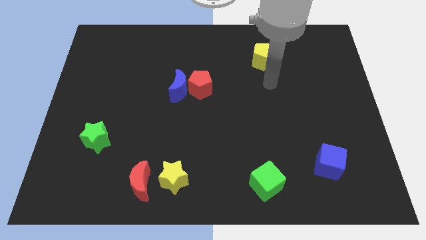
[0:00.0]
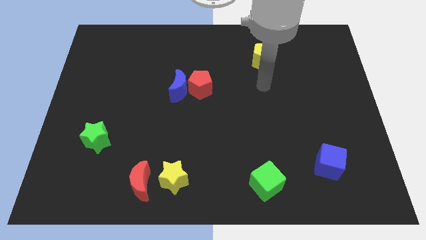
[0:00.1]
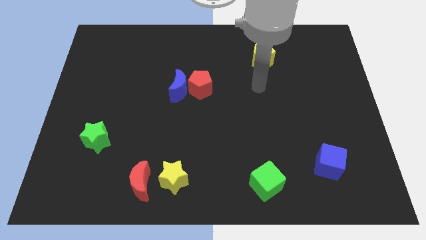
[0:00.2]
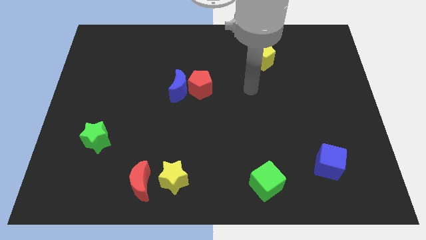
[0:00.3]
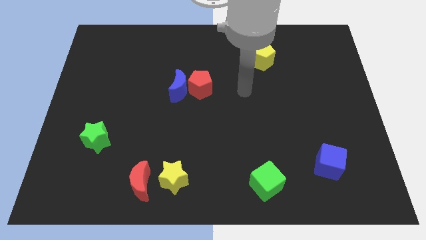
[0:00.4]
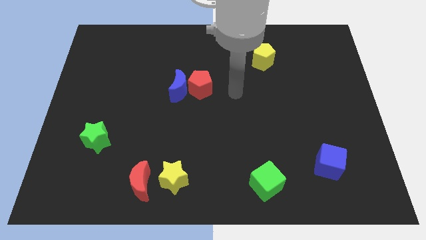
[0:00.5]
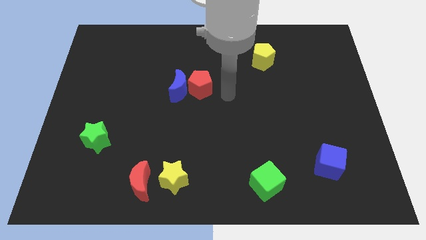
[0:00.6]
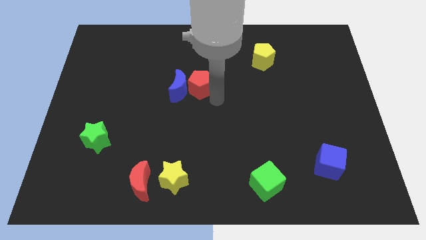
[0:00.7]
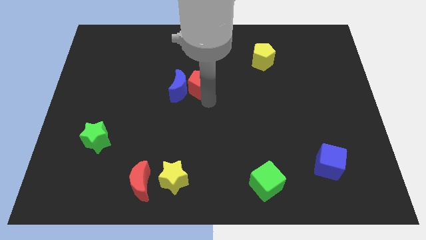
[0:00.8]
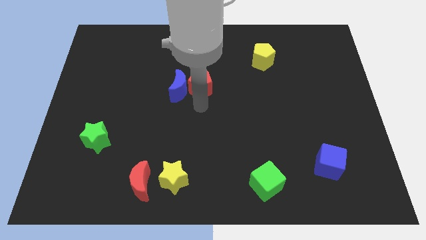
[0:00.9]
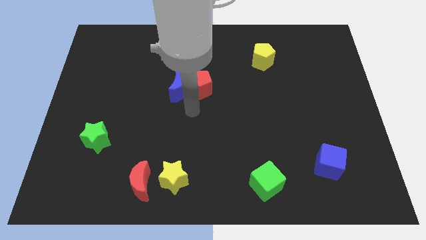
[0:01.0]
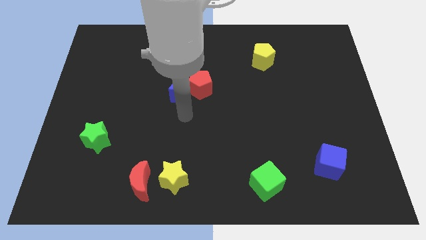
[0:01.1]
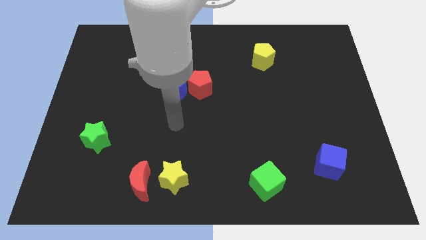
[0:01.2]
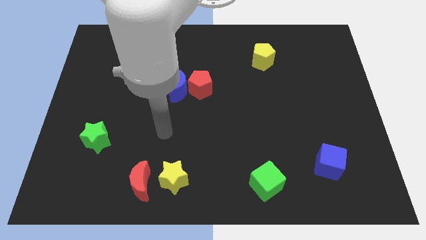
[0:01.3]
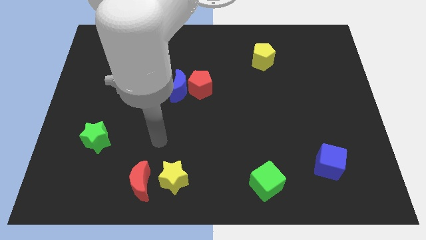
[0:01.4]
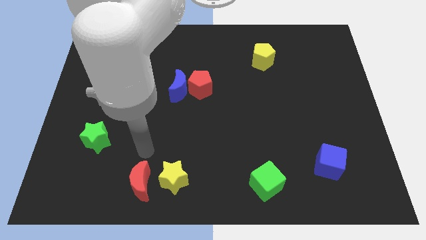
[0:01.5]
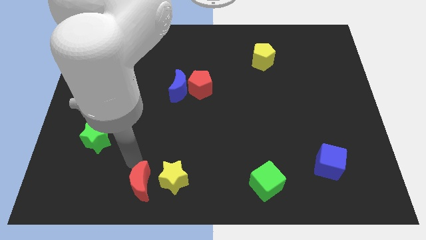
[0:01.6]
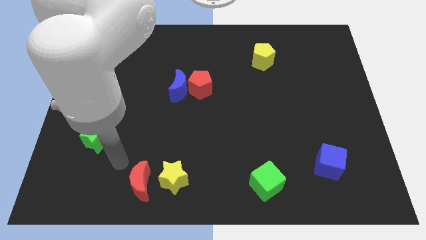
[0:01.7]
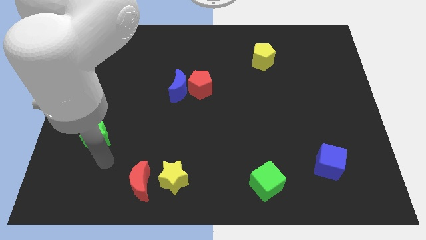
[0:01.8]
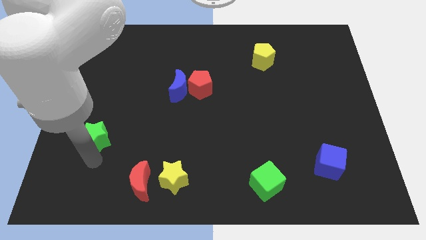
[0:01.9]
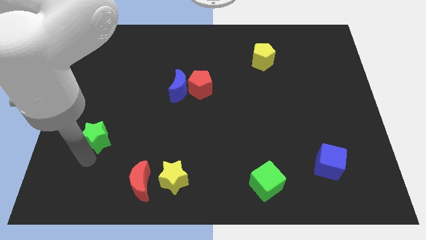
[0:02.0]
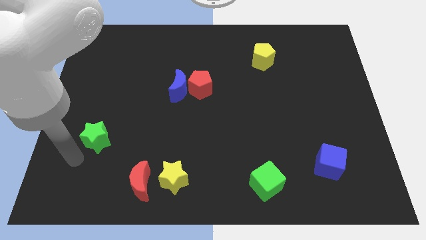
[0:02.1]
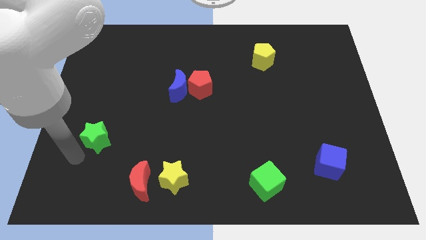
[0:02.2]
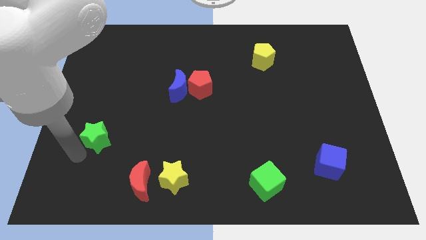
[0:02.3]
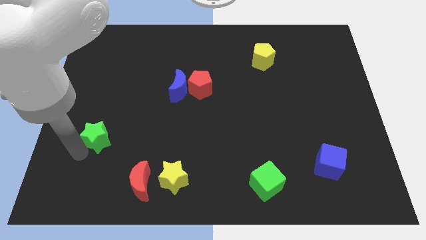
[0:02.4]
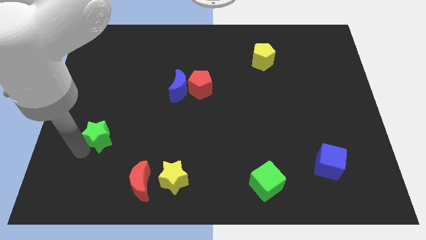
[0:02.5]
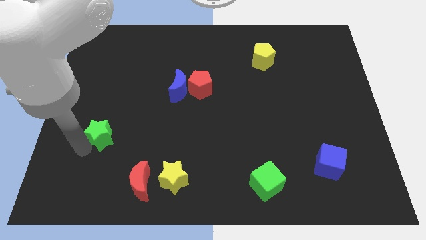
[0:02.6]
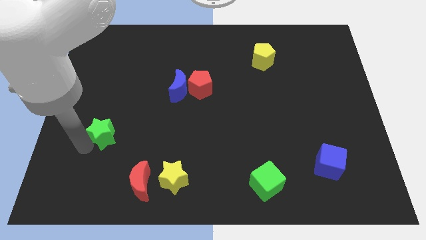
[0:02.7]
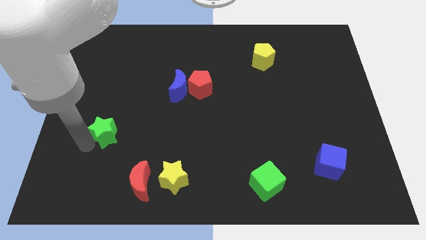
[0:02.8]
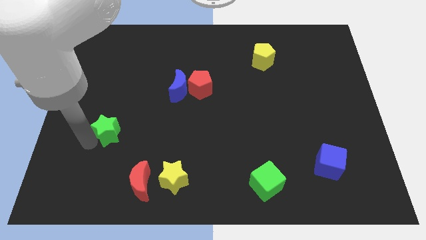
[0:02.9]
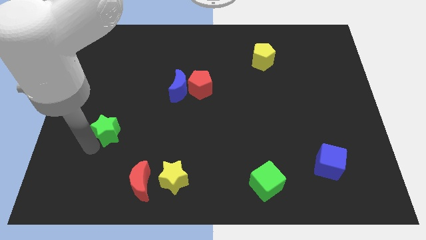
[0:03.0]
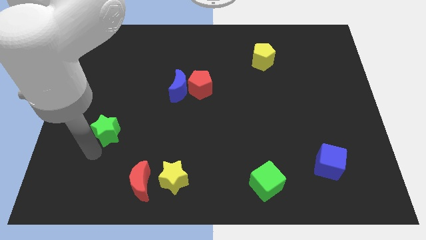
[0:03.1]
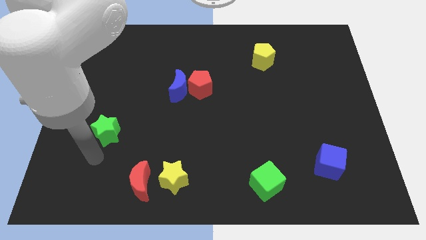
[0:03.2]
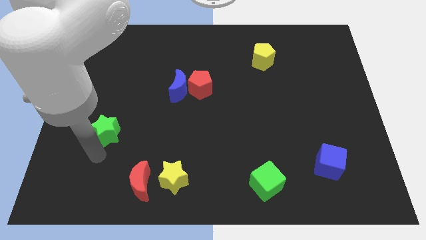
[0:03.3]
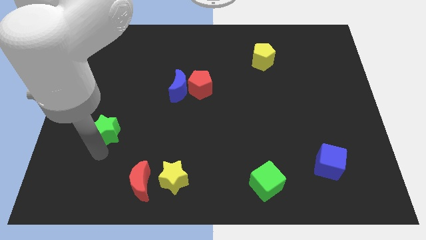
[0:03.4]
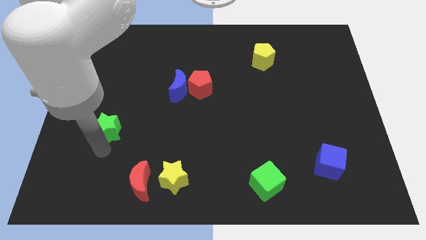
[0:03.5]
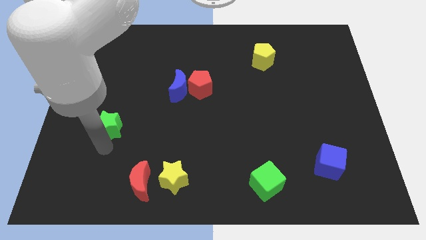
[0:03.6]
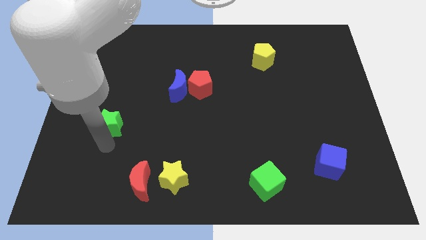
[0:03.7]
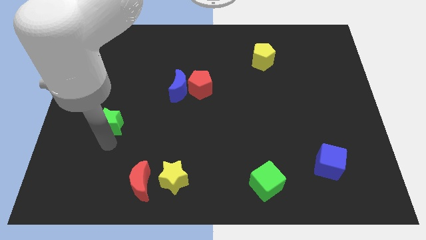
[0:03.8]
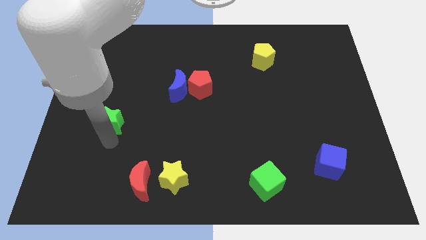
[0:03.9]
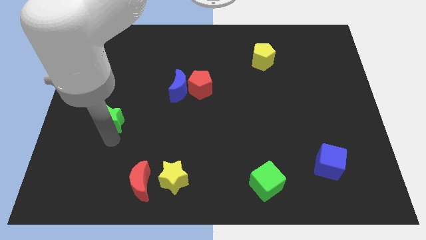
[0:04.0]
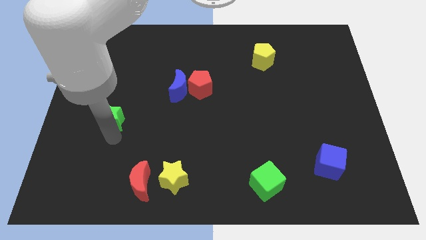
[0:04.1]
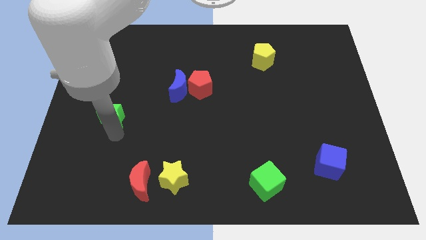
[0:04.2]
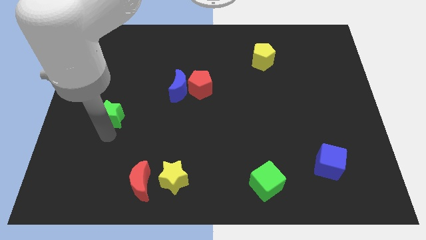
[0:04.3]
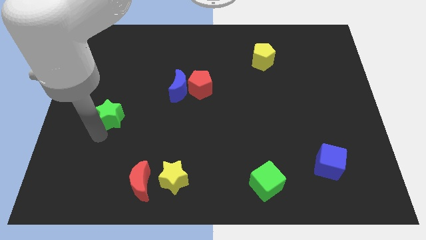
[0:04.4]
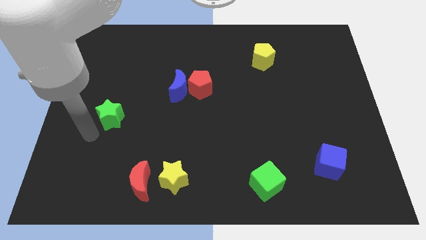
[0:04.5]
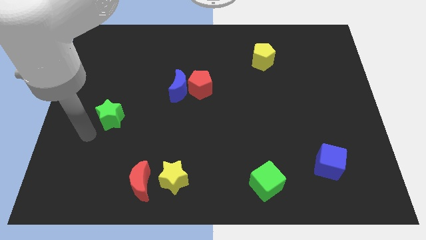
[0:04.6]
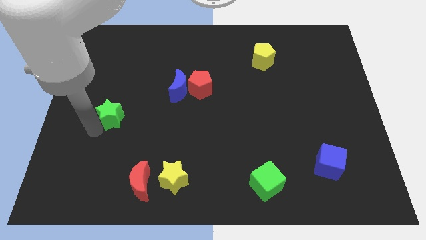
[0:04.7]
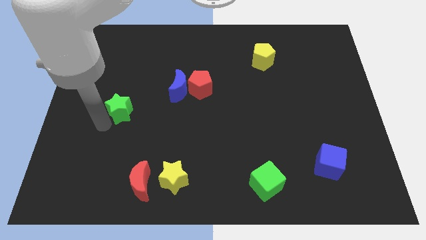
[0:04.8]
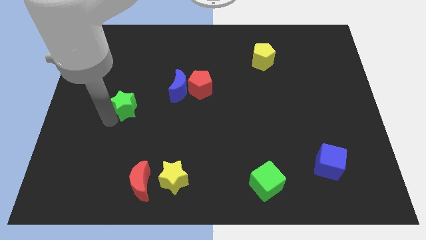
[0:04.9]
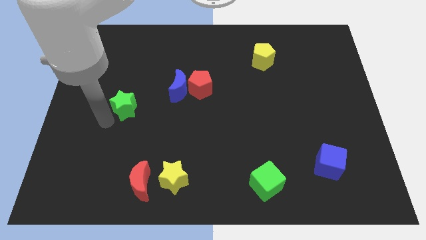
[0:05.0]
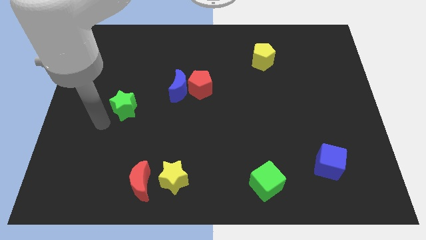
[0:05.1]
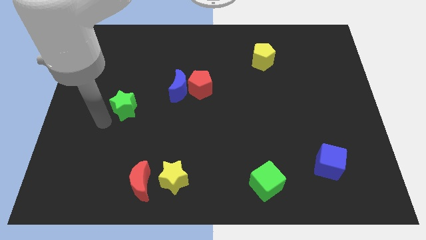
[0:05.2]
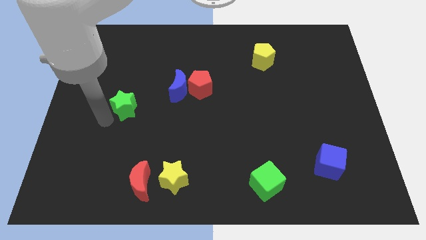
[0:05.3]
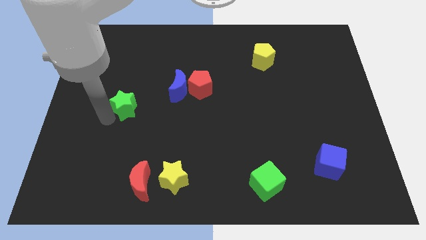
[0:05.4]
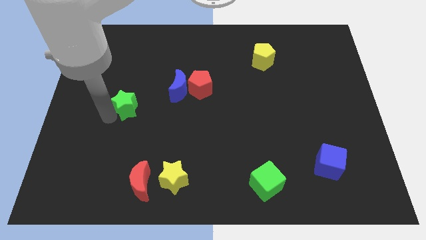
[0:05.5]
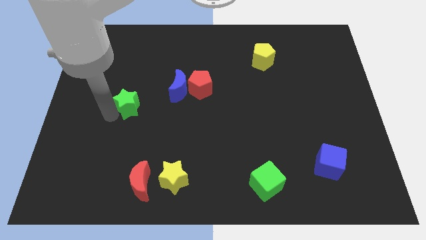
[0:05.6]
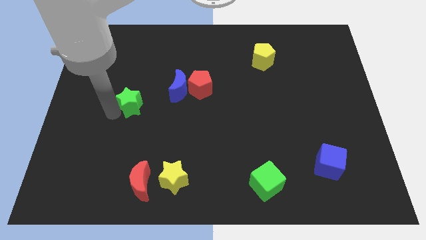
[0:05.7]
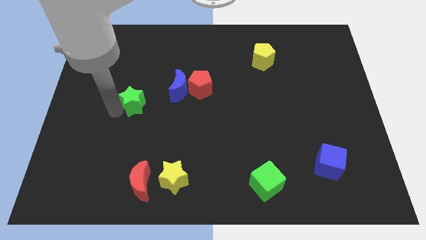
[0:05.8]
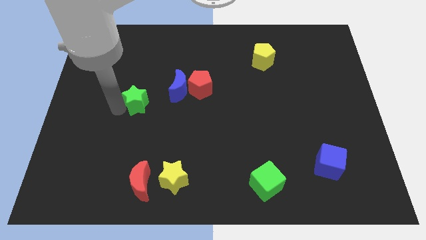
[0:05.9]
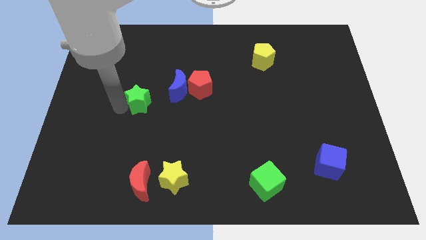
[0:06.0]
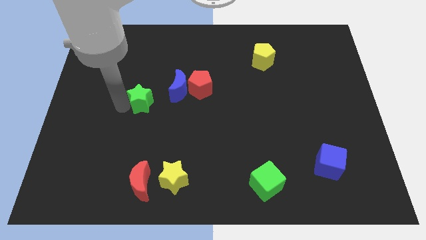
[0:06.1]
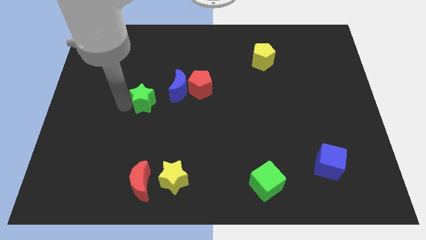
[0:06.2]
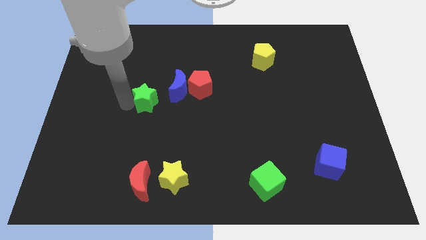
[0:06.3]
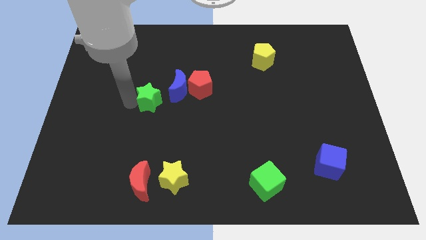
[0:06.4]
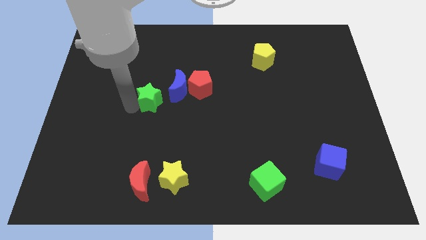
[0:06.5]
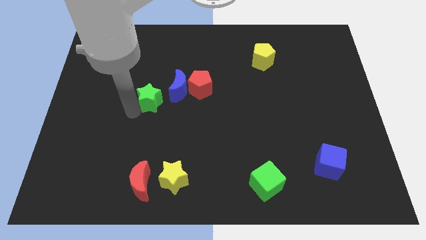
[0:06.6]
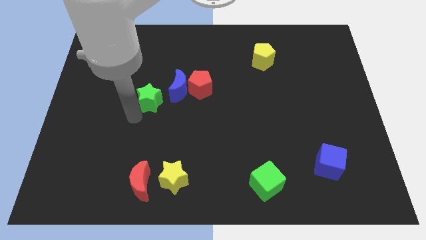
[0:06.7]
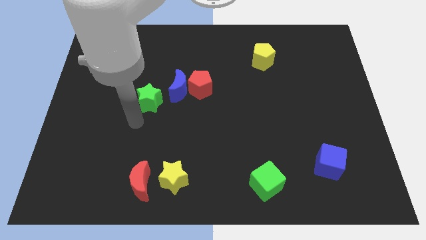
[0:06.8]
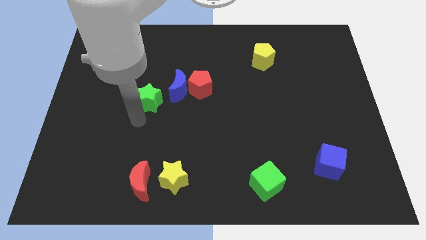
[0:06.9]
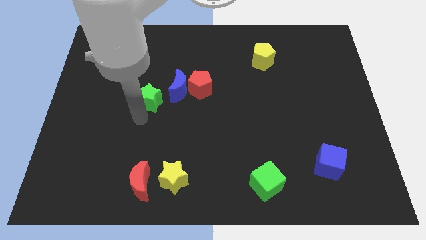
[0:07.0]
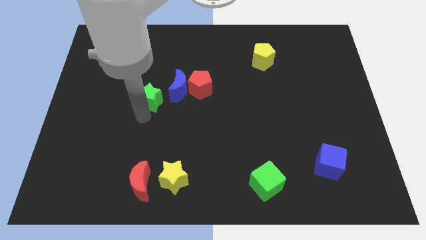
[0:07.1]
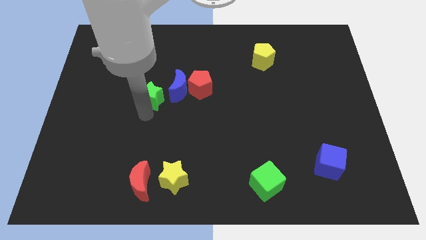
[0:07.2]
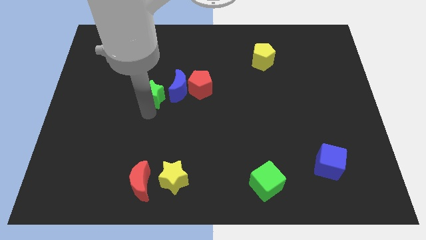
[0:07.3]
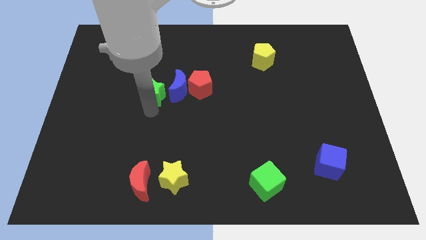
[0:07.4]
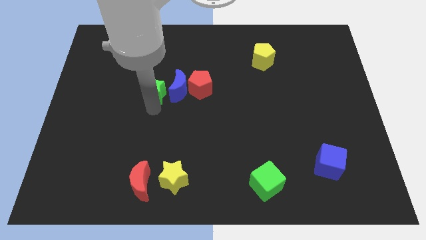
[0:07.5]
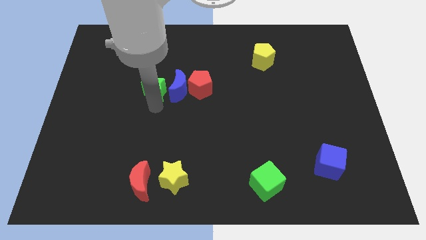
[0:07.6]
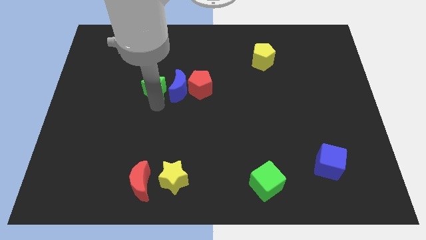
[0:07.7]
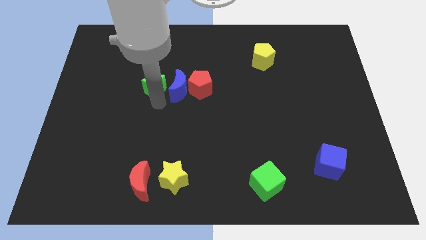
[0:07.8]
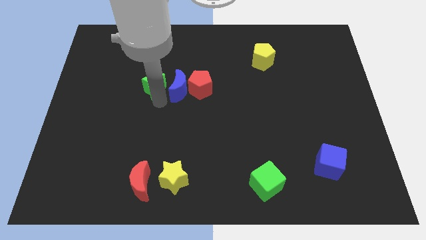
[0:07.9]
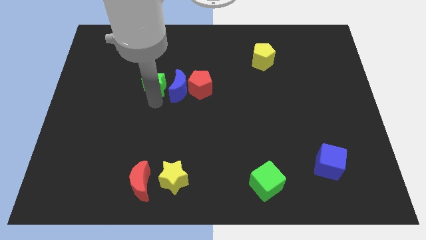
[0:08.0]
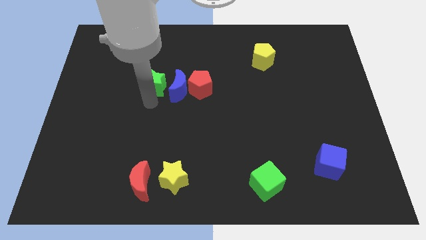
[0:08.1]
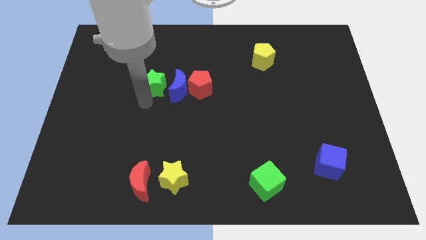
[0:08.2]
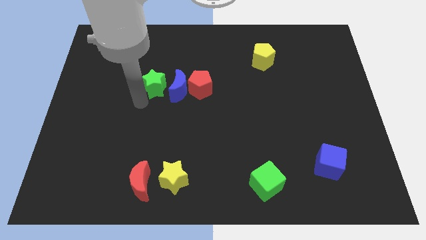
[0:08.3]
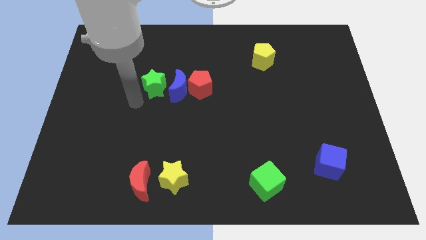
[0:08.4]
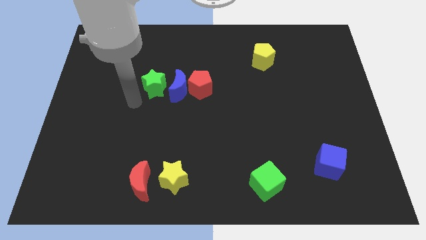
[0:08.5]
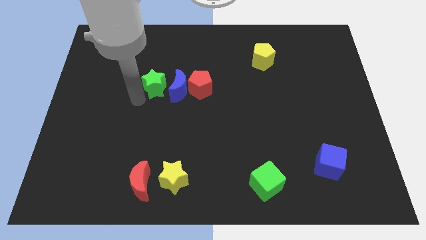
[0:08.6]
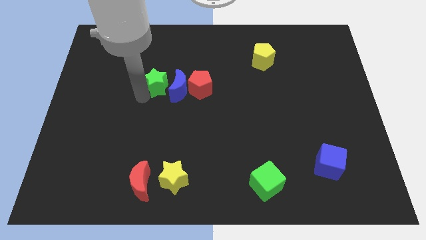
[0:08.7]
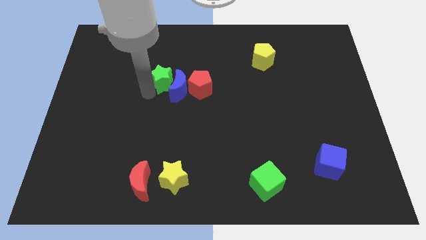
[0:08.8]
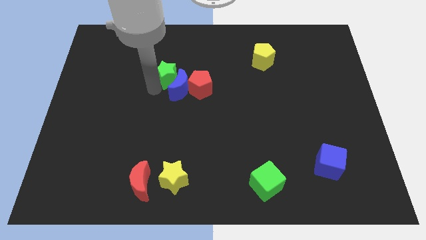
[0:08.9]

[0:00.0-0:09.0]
slide the green star to the top left side of the red pentagon
